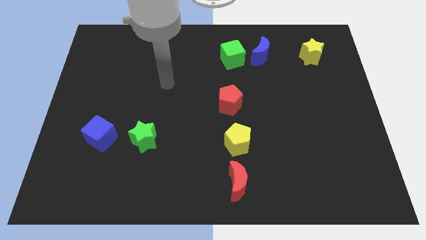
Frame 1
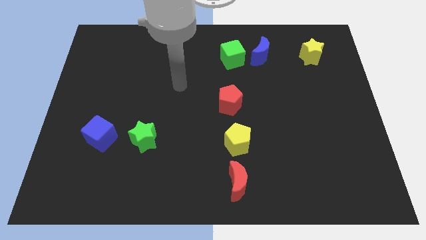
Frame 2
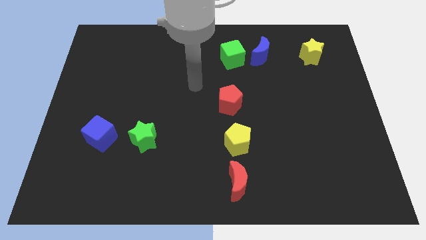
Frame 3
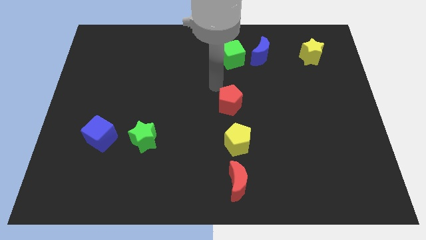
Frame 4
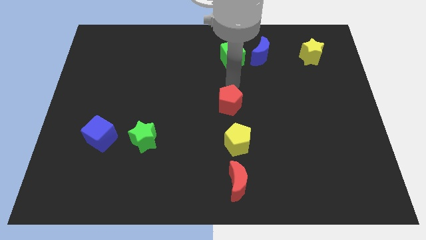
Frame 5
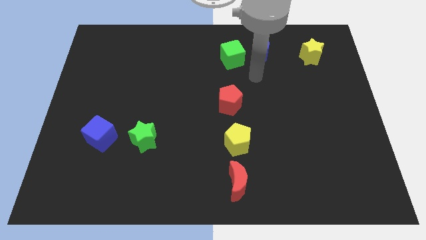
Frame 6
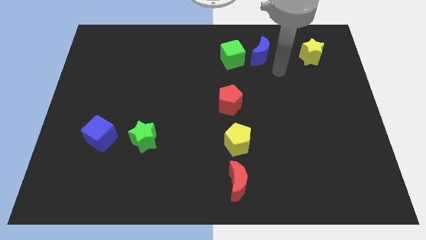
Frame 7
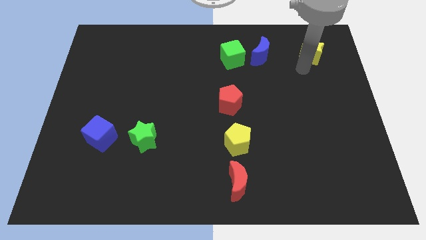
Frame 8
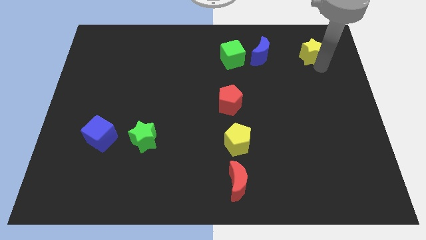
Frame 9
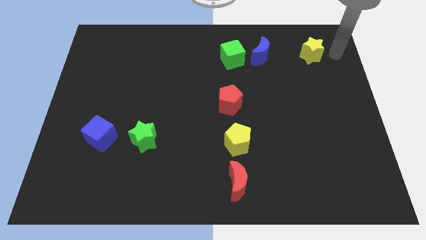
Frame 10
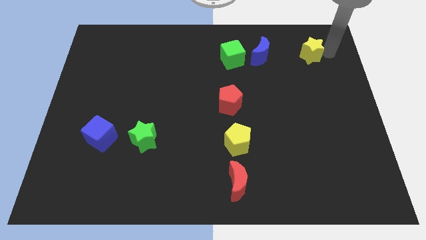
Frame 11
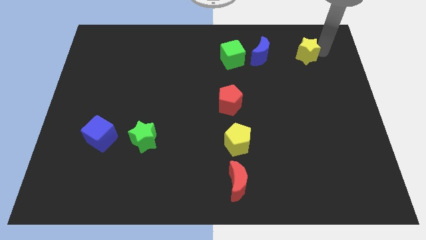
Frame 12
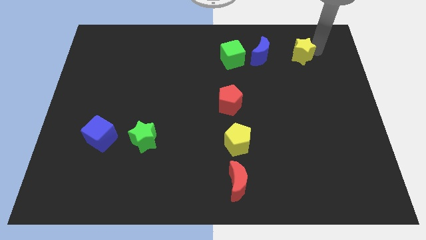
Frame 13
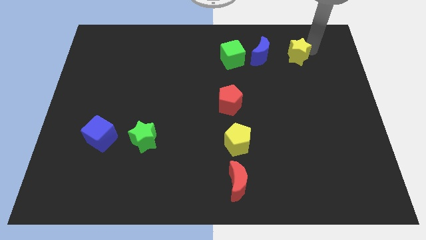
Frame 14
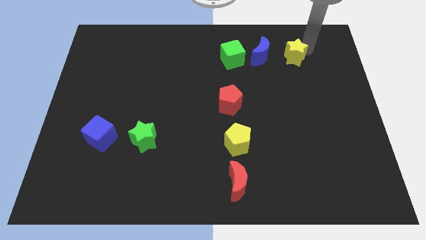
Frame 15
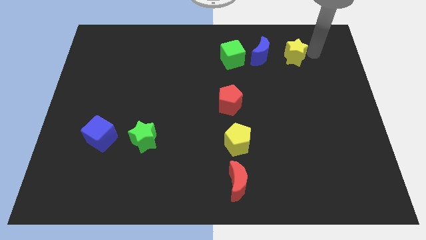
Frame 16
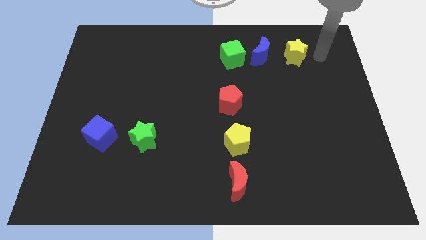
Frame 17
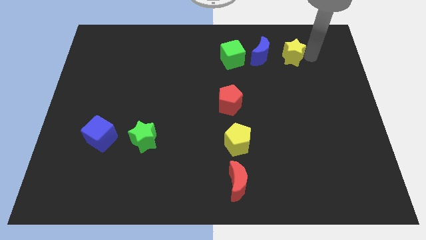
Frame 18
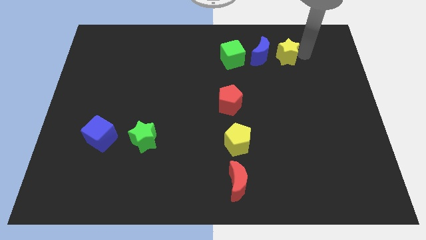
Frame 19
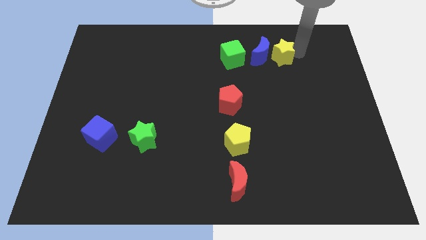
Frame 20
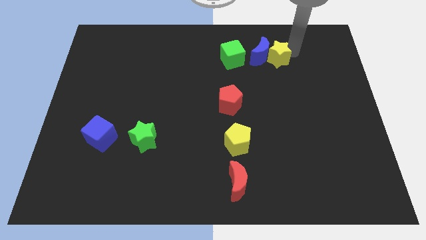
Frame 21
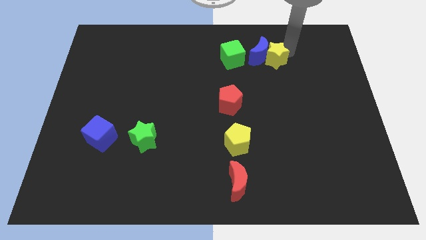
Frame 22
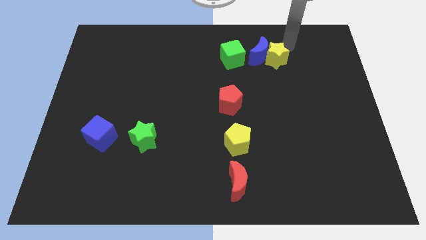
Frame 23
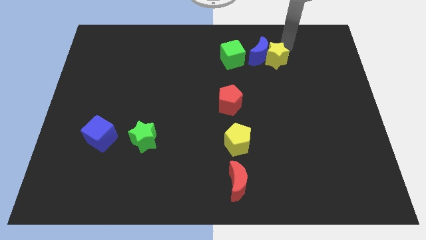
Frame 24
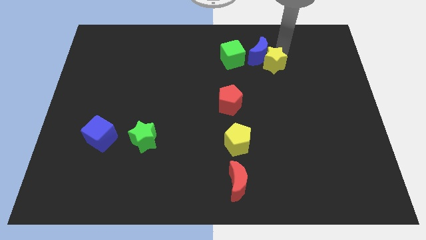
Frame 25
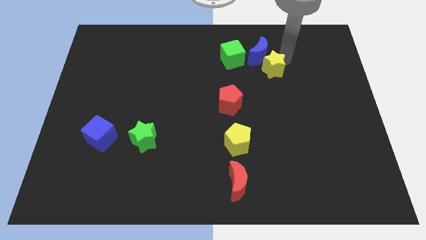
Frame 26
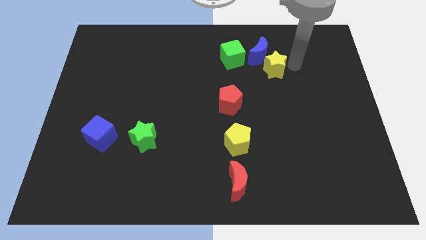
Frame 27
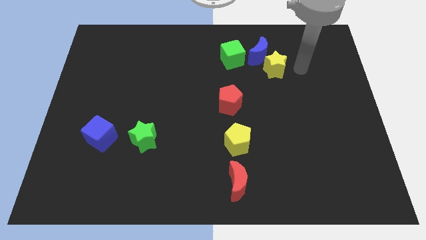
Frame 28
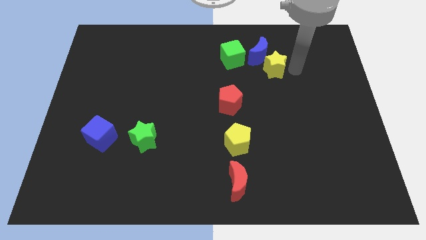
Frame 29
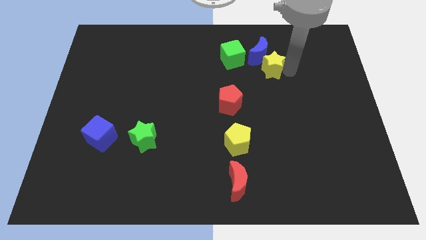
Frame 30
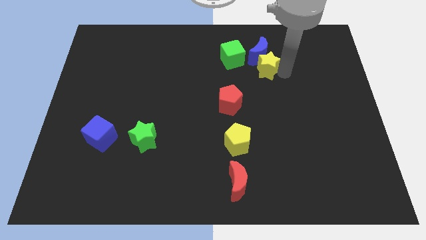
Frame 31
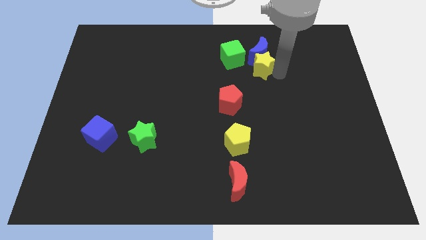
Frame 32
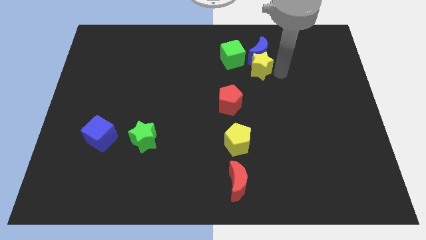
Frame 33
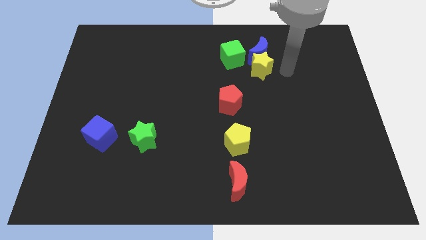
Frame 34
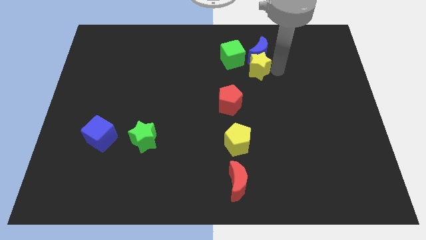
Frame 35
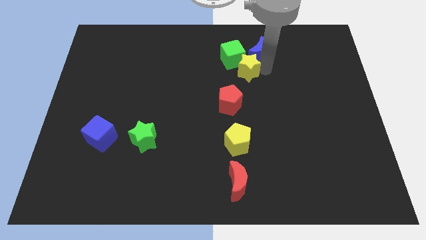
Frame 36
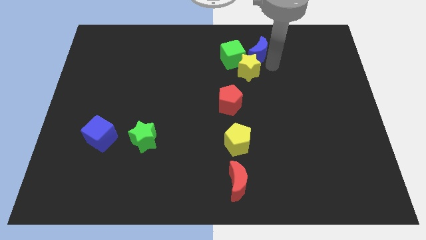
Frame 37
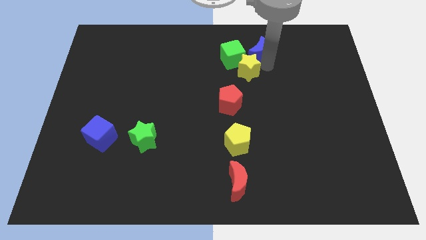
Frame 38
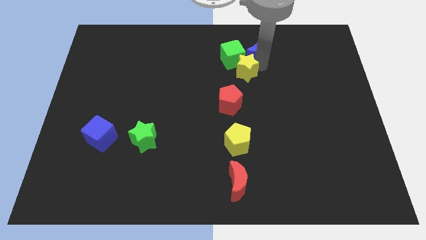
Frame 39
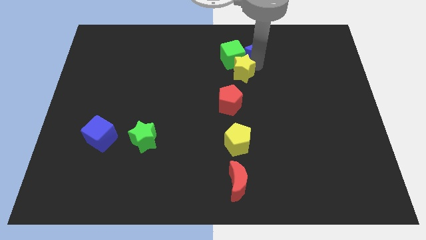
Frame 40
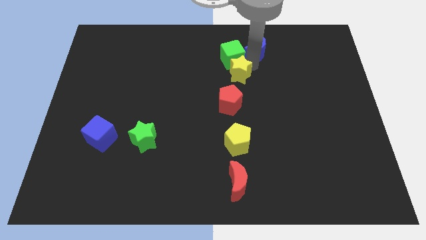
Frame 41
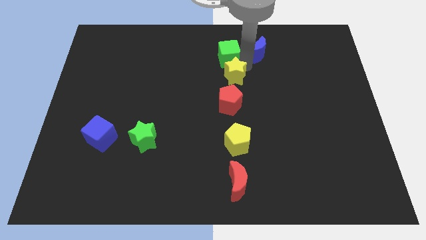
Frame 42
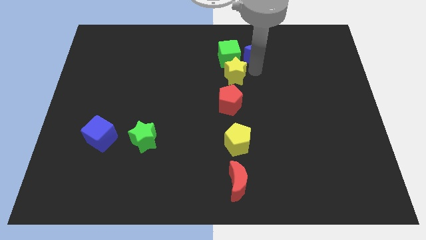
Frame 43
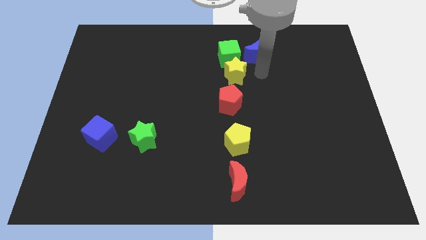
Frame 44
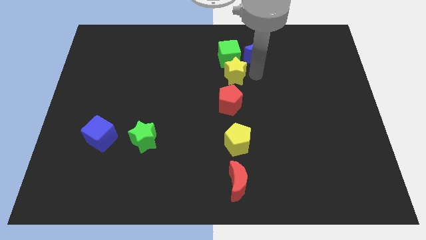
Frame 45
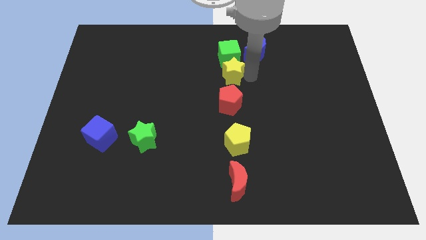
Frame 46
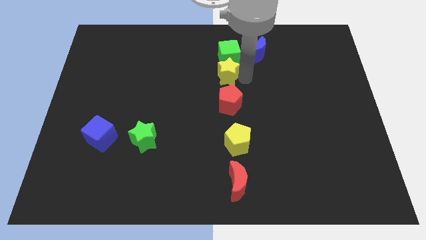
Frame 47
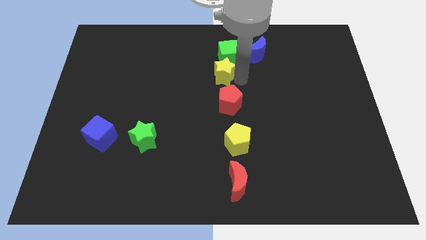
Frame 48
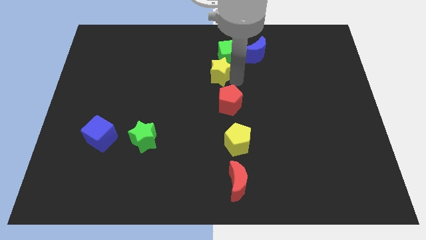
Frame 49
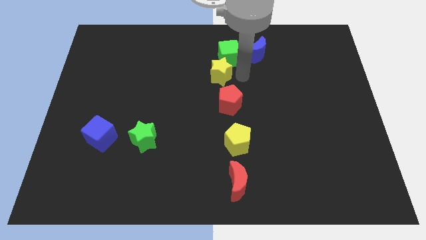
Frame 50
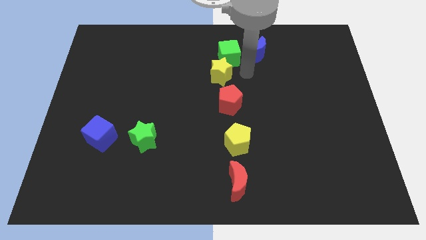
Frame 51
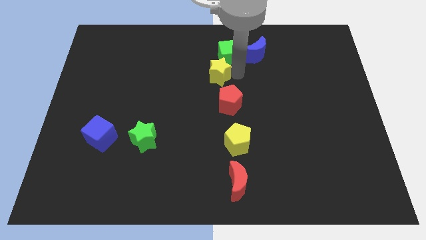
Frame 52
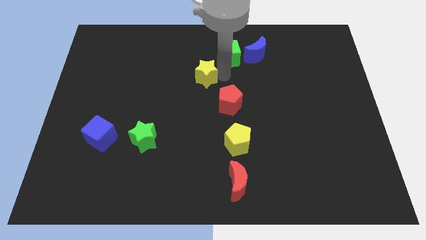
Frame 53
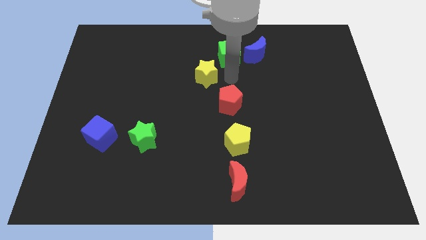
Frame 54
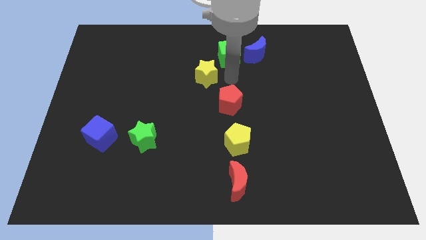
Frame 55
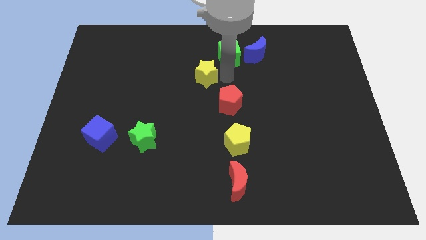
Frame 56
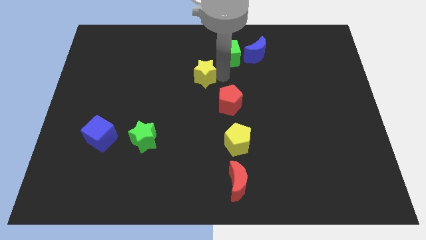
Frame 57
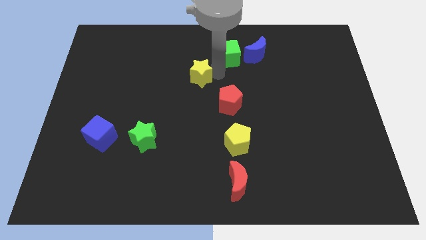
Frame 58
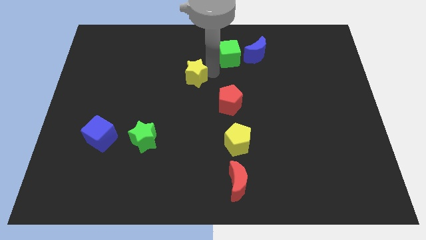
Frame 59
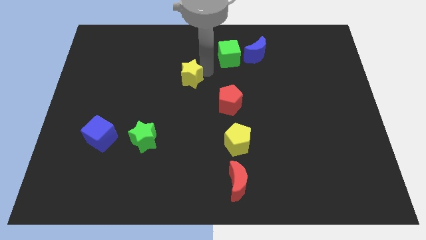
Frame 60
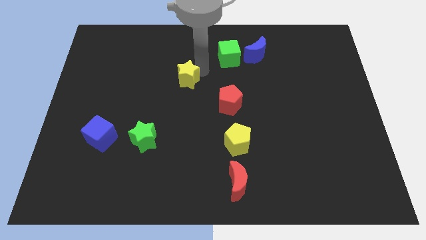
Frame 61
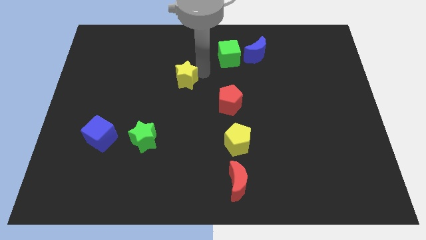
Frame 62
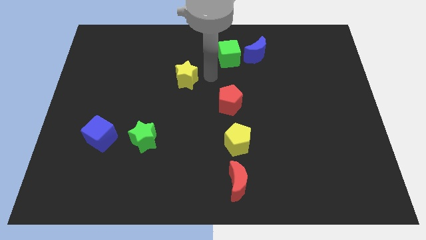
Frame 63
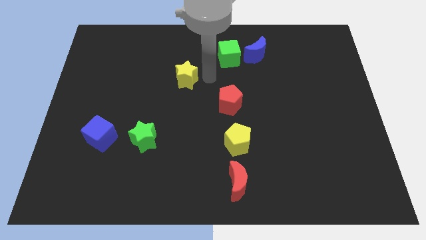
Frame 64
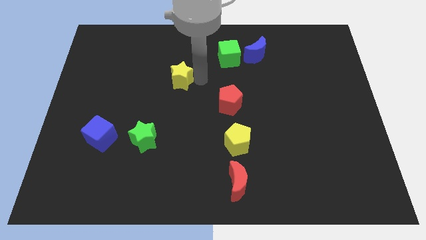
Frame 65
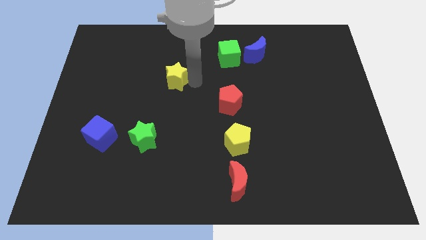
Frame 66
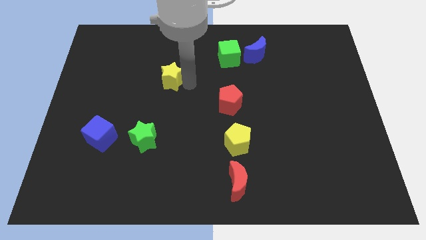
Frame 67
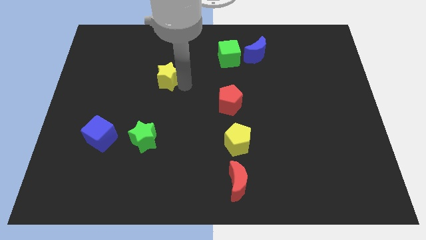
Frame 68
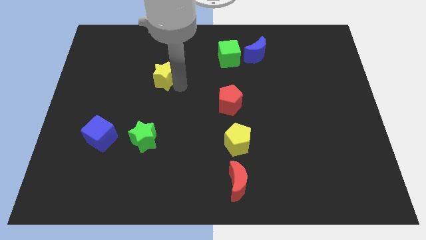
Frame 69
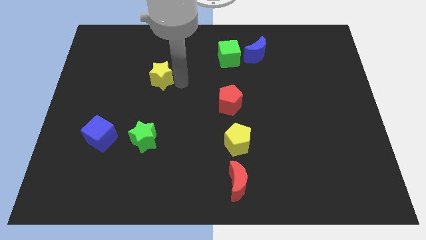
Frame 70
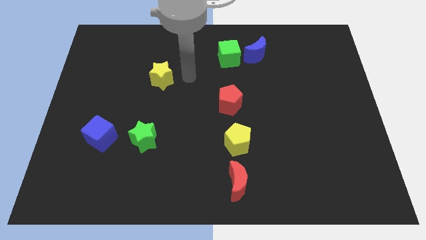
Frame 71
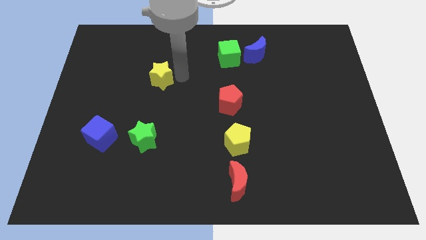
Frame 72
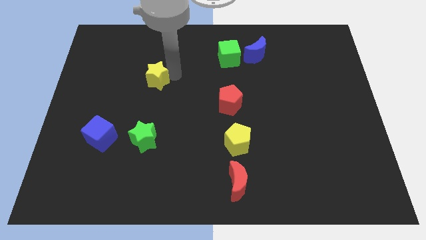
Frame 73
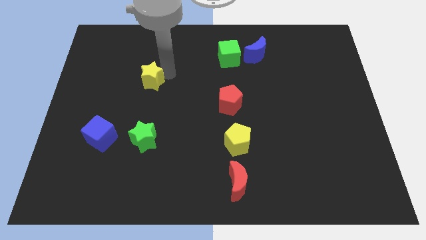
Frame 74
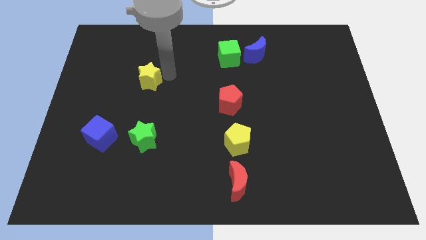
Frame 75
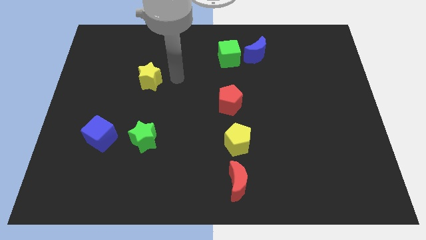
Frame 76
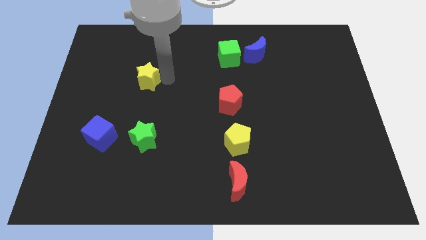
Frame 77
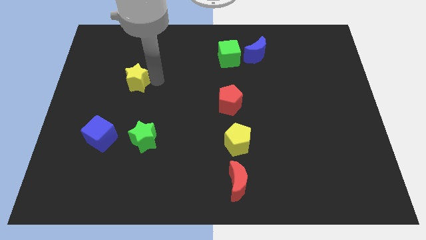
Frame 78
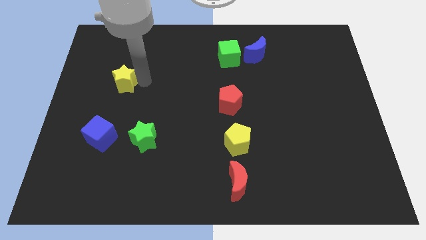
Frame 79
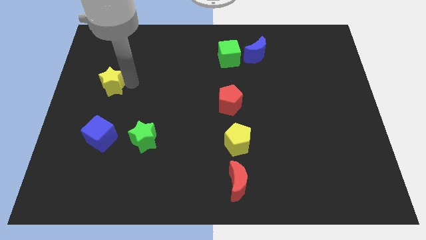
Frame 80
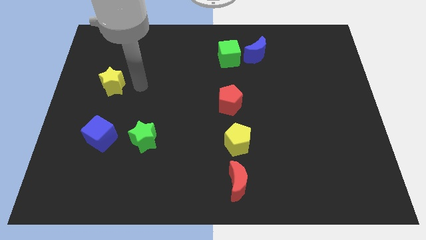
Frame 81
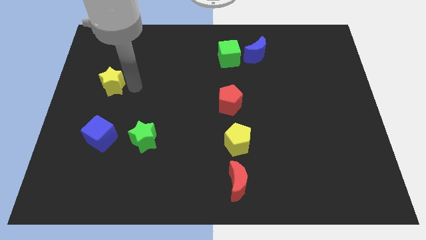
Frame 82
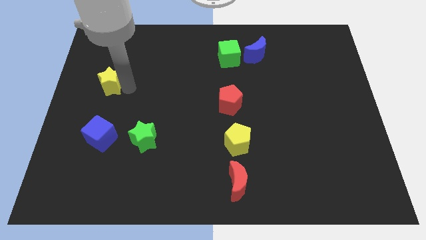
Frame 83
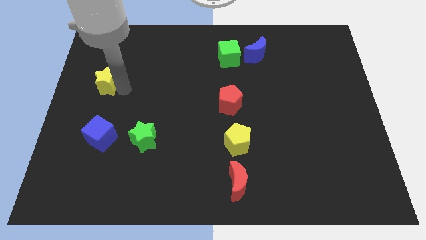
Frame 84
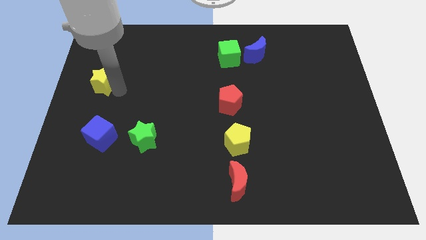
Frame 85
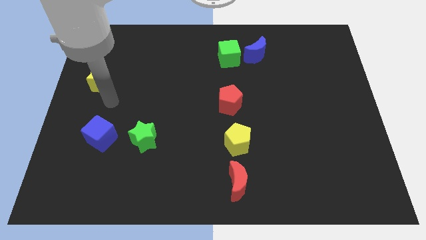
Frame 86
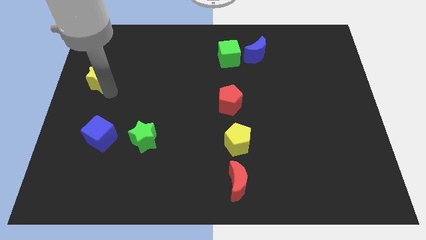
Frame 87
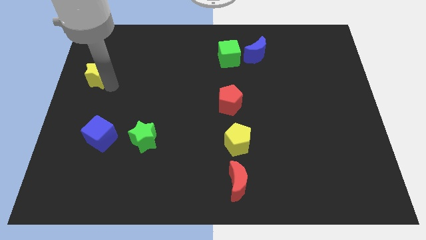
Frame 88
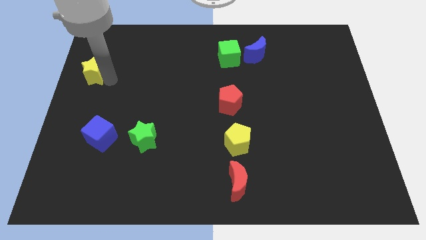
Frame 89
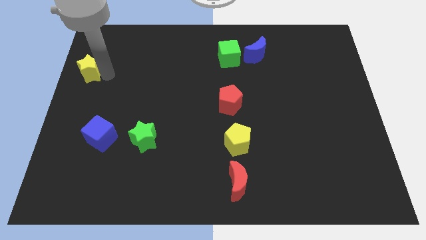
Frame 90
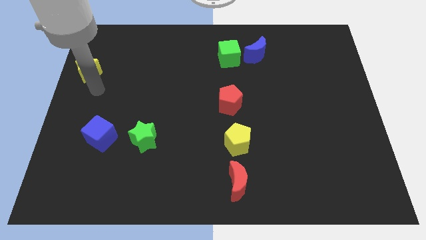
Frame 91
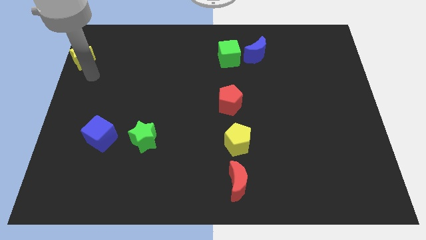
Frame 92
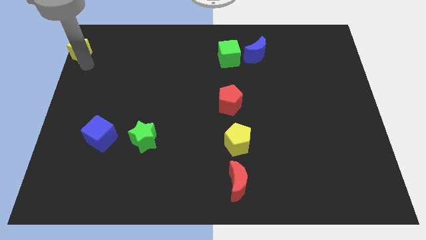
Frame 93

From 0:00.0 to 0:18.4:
move the yellow star to the top left
